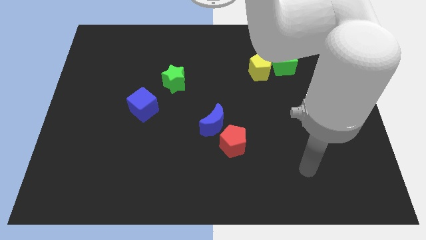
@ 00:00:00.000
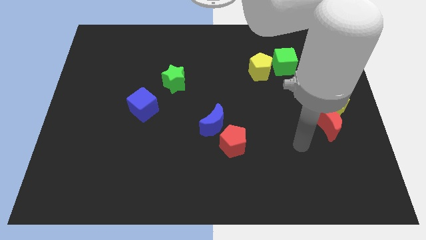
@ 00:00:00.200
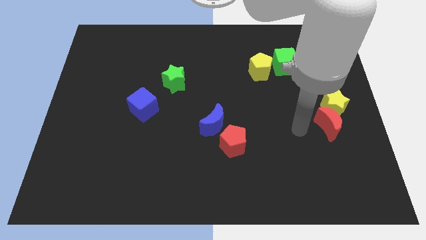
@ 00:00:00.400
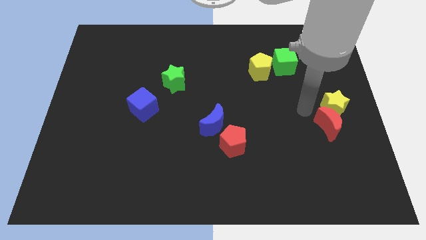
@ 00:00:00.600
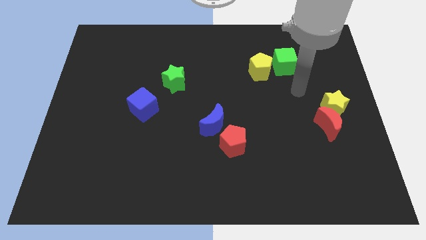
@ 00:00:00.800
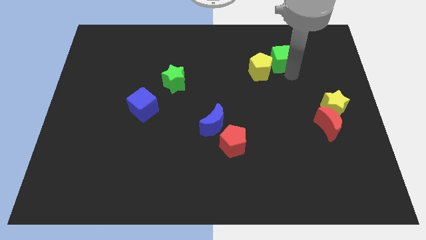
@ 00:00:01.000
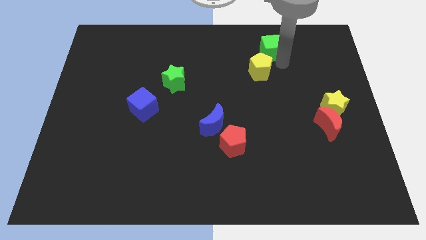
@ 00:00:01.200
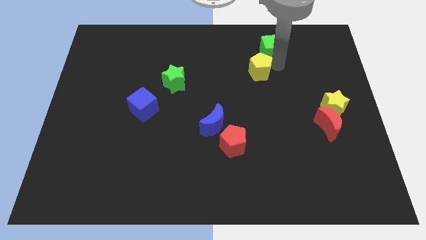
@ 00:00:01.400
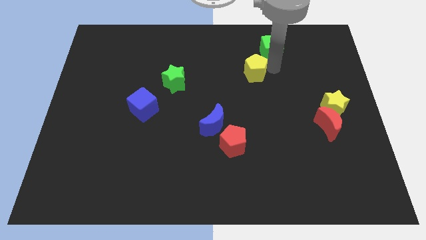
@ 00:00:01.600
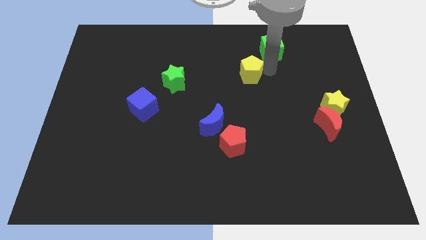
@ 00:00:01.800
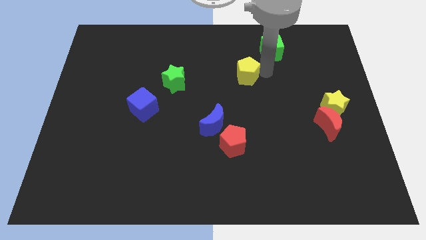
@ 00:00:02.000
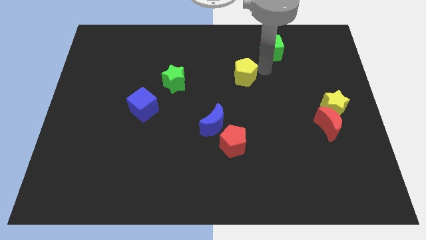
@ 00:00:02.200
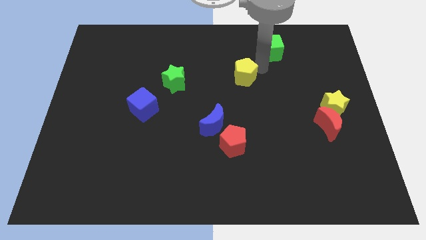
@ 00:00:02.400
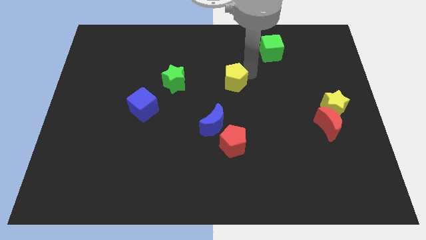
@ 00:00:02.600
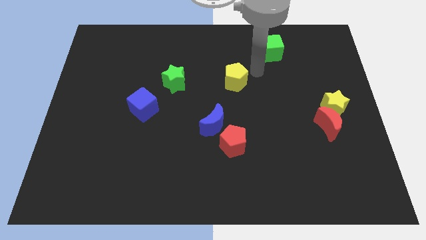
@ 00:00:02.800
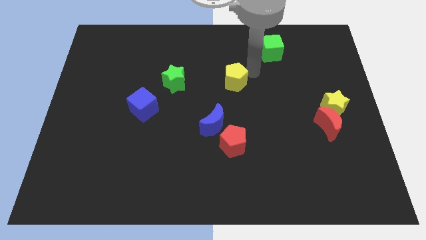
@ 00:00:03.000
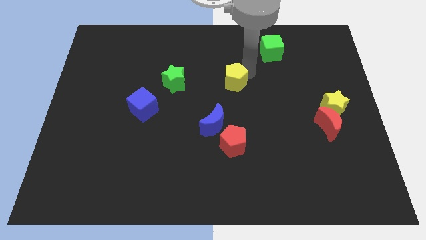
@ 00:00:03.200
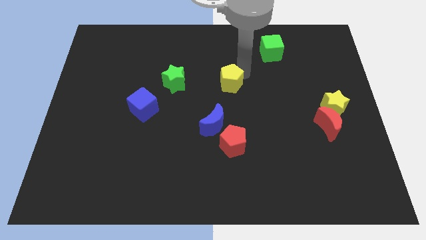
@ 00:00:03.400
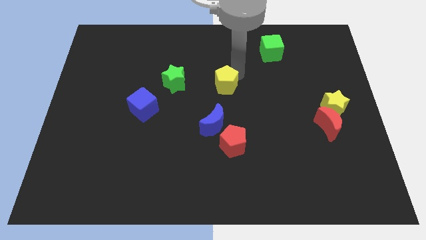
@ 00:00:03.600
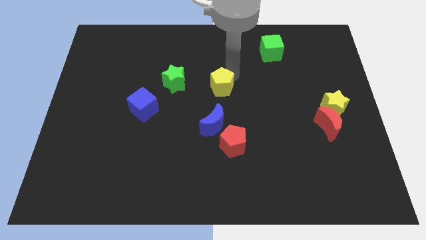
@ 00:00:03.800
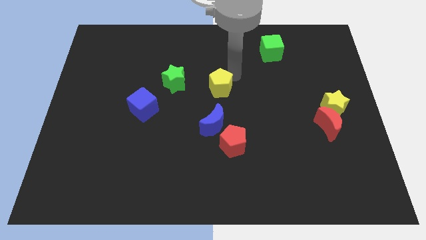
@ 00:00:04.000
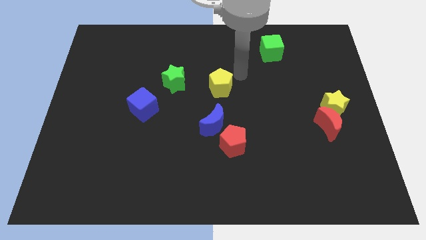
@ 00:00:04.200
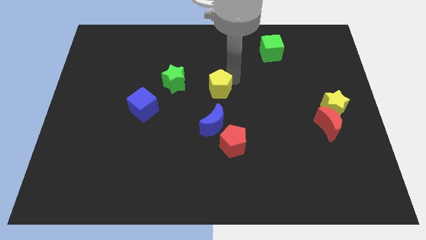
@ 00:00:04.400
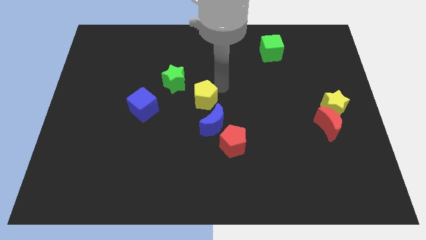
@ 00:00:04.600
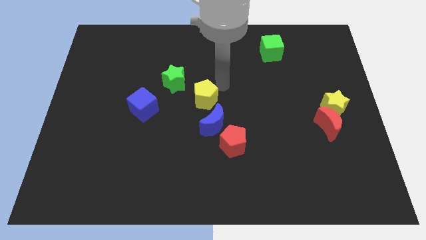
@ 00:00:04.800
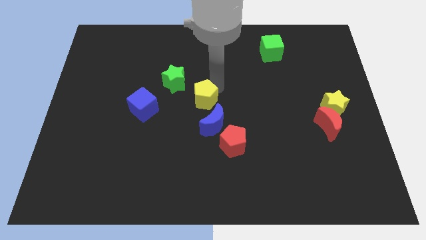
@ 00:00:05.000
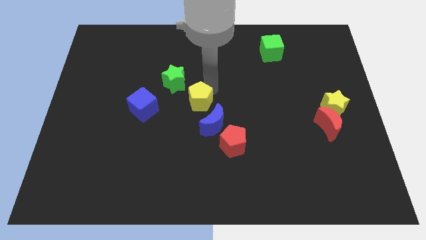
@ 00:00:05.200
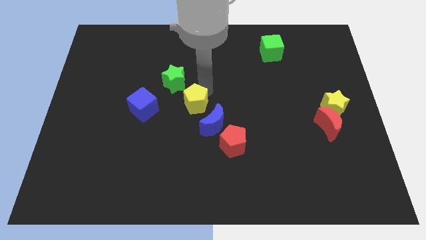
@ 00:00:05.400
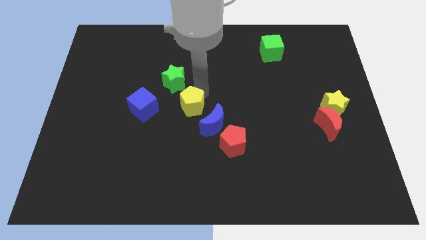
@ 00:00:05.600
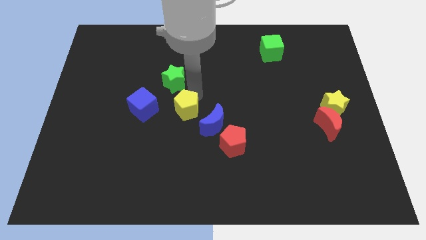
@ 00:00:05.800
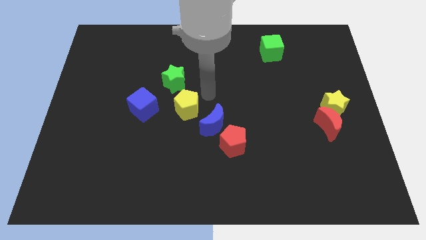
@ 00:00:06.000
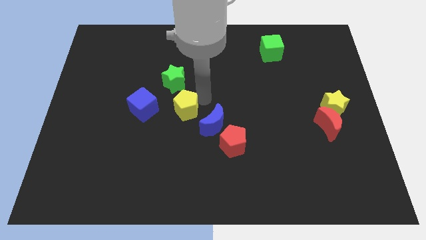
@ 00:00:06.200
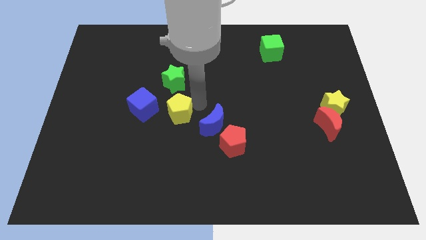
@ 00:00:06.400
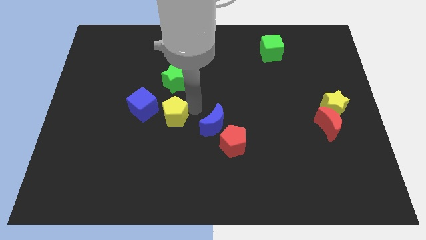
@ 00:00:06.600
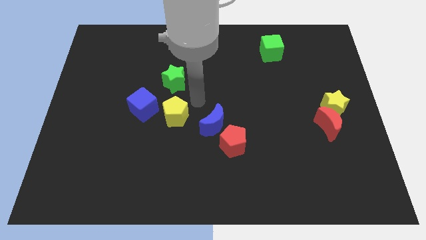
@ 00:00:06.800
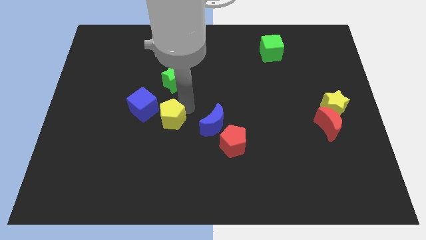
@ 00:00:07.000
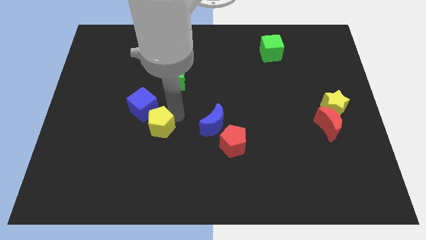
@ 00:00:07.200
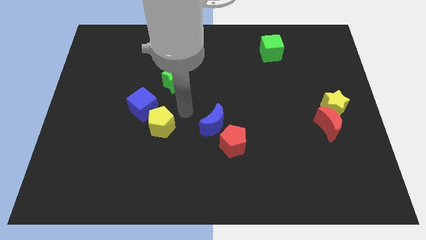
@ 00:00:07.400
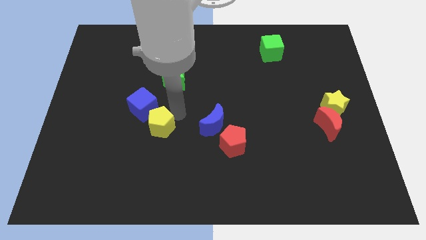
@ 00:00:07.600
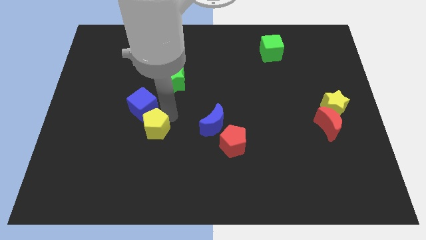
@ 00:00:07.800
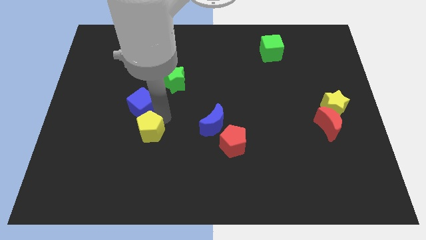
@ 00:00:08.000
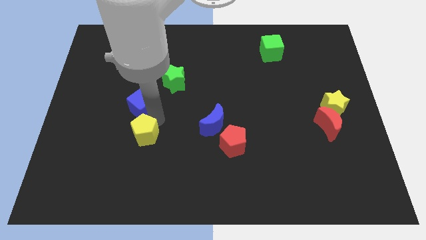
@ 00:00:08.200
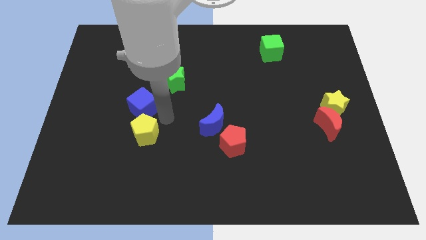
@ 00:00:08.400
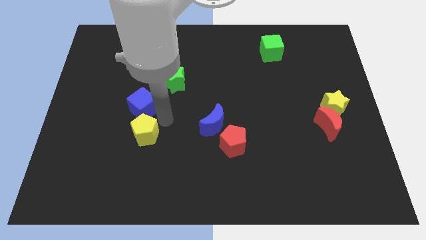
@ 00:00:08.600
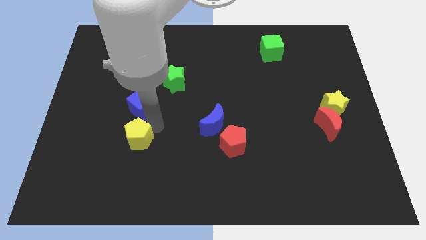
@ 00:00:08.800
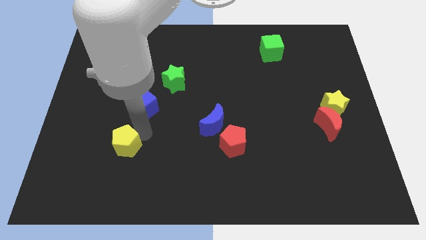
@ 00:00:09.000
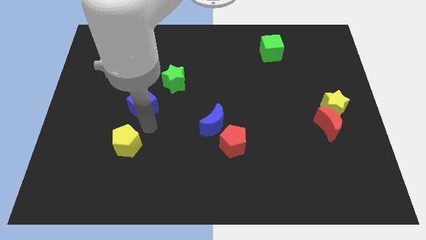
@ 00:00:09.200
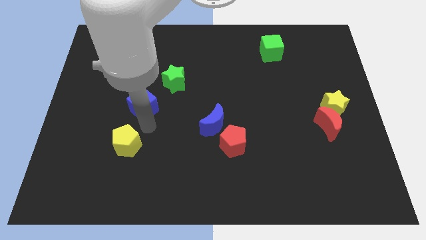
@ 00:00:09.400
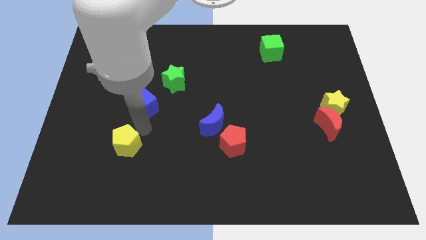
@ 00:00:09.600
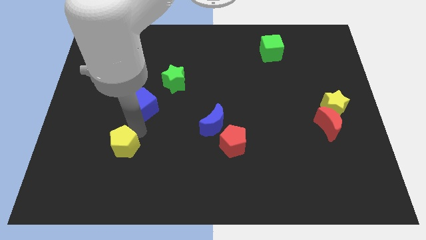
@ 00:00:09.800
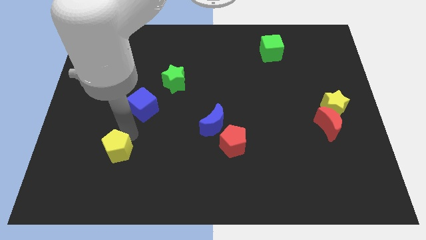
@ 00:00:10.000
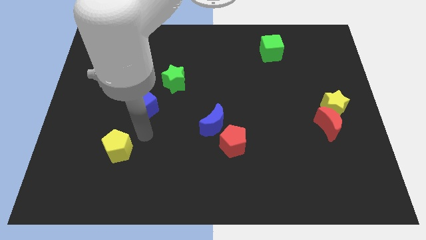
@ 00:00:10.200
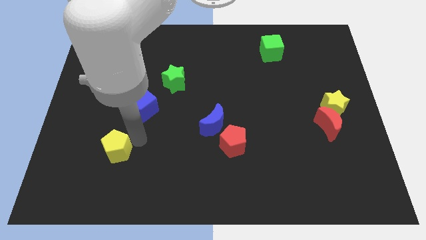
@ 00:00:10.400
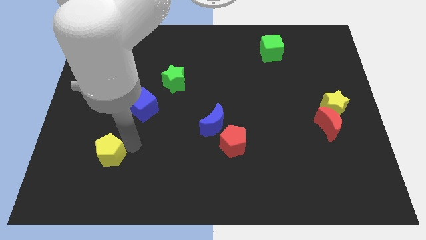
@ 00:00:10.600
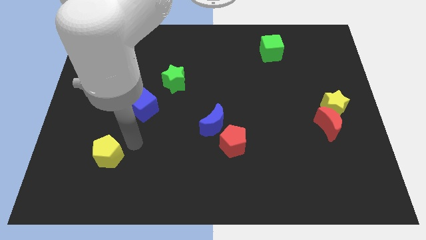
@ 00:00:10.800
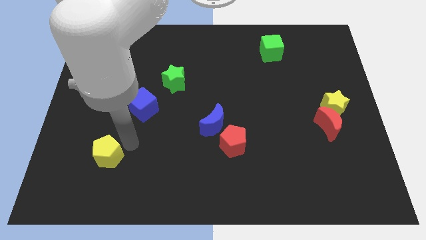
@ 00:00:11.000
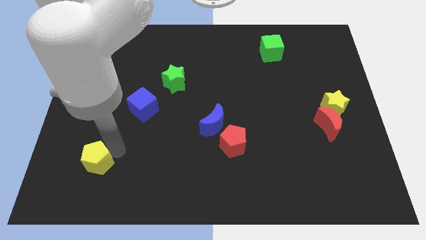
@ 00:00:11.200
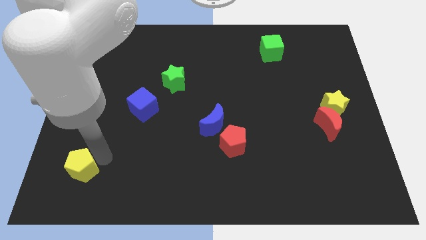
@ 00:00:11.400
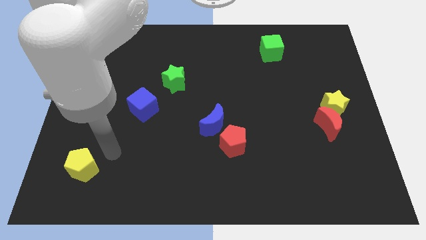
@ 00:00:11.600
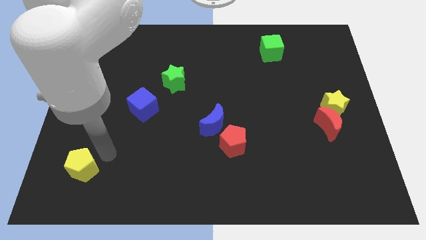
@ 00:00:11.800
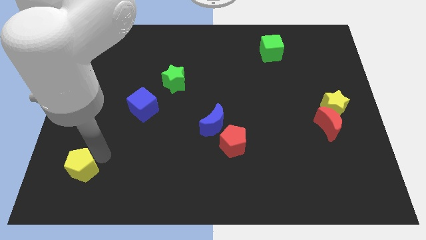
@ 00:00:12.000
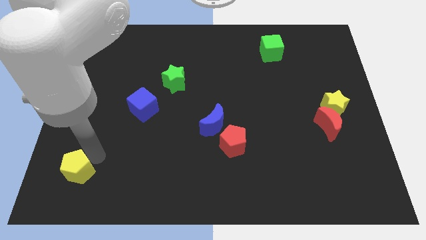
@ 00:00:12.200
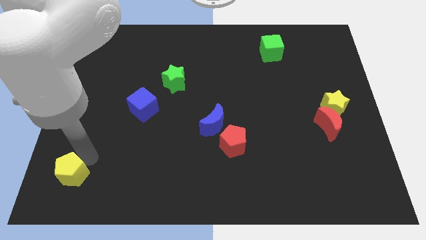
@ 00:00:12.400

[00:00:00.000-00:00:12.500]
push the yellow pentagon to the lower left corner
